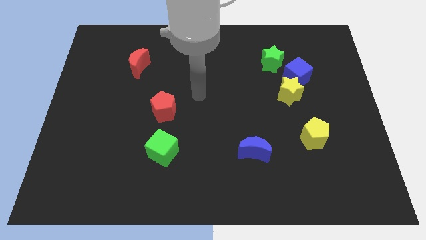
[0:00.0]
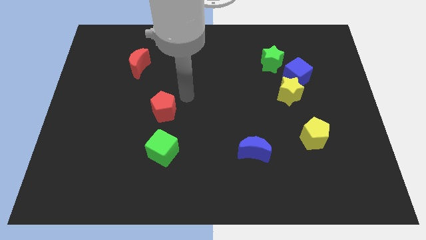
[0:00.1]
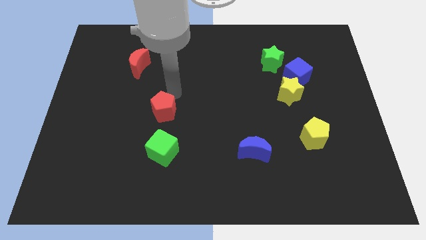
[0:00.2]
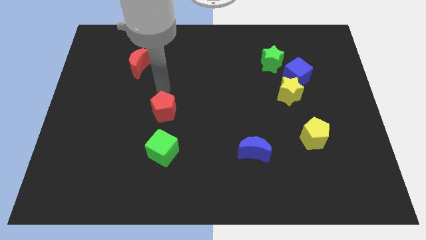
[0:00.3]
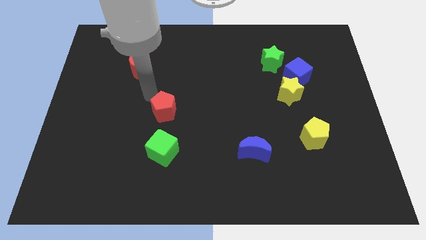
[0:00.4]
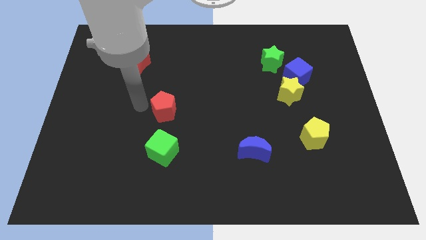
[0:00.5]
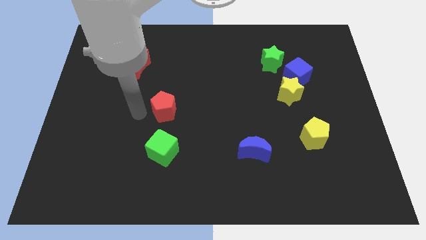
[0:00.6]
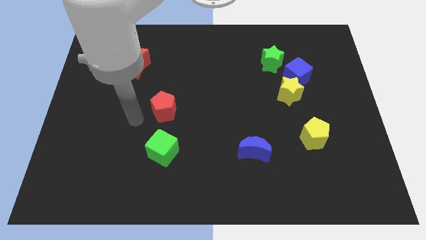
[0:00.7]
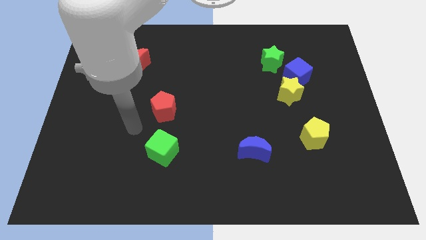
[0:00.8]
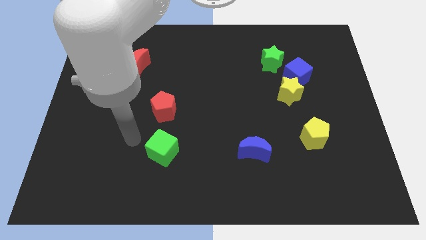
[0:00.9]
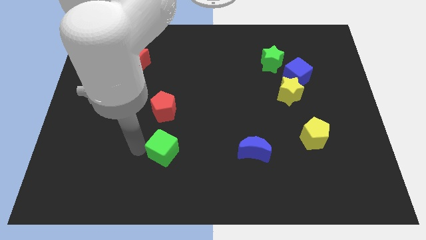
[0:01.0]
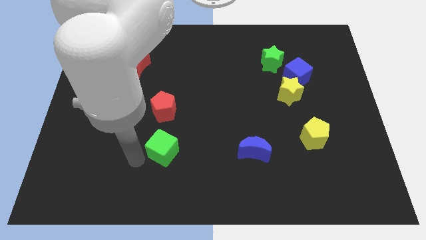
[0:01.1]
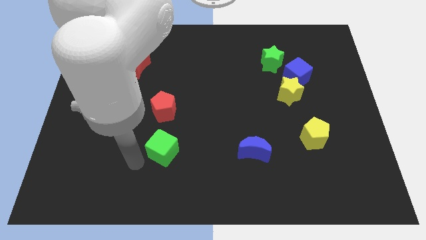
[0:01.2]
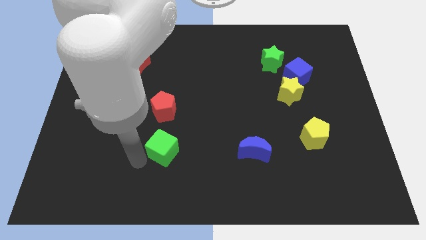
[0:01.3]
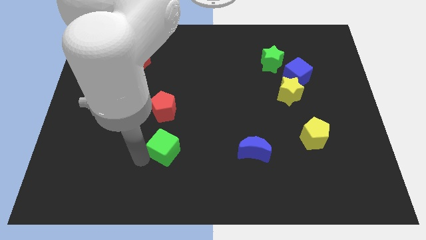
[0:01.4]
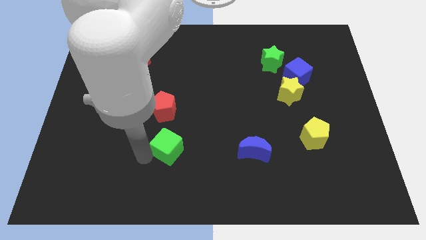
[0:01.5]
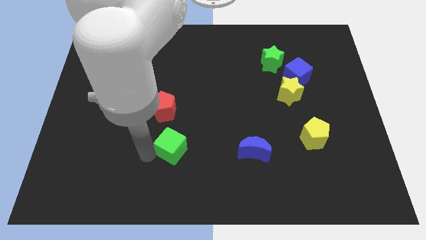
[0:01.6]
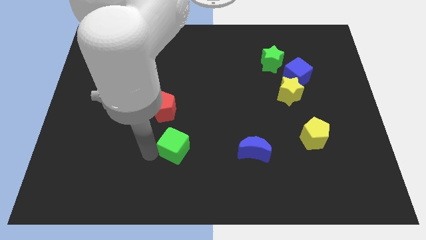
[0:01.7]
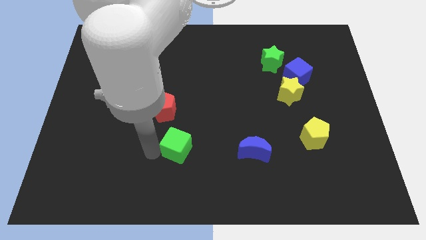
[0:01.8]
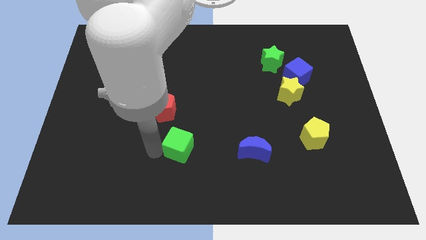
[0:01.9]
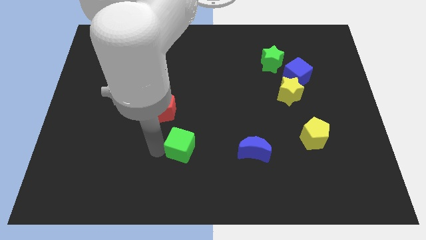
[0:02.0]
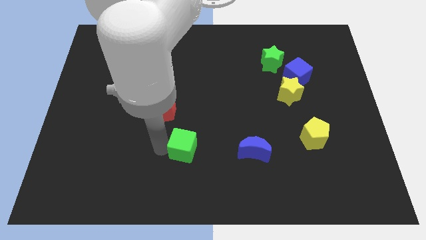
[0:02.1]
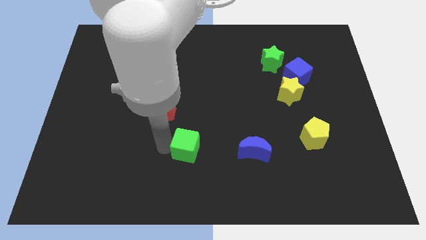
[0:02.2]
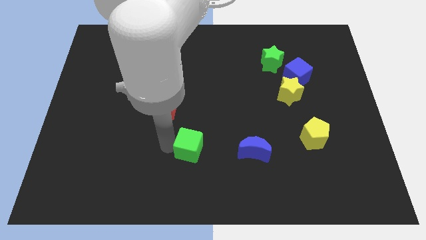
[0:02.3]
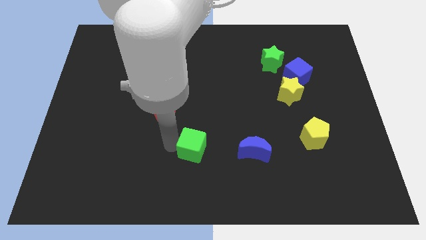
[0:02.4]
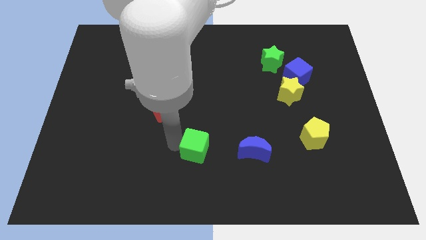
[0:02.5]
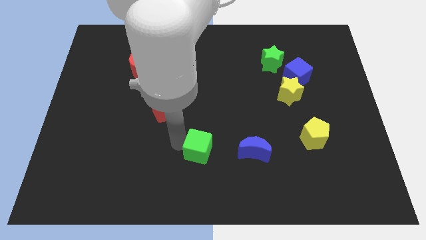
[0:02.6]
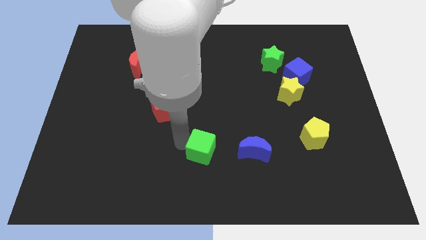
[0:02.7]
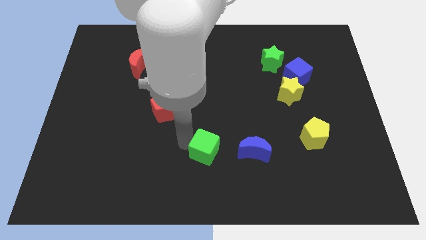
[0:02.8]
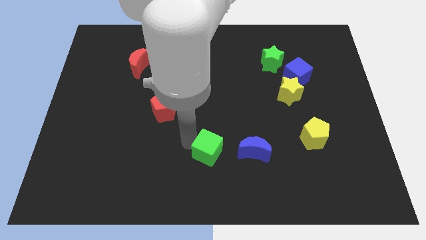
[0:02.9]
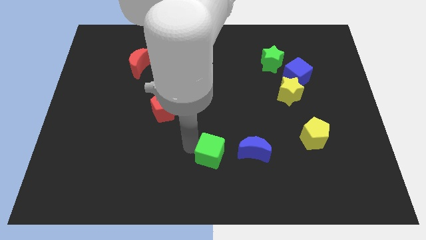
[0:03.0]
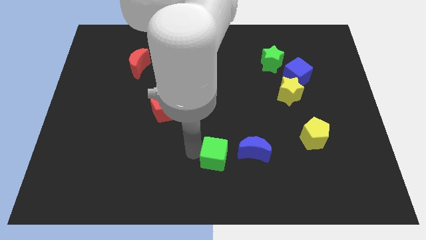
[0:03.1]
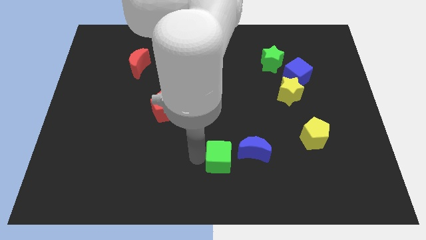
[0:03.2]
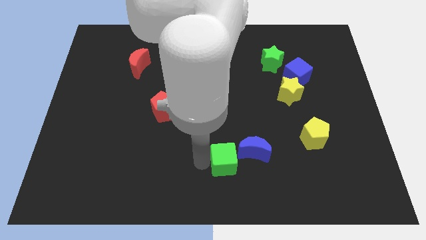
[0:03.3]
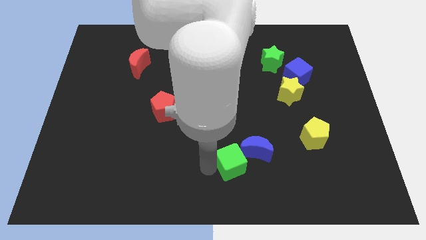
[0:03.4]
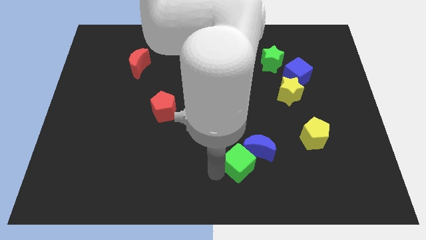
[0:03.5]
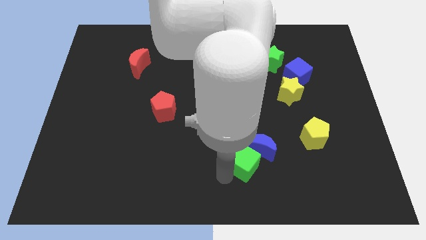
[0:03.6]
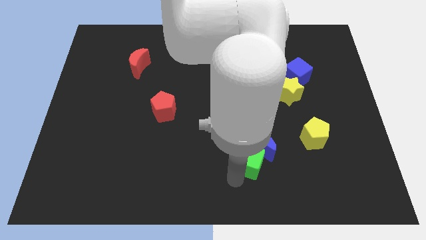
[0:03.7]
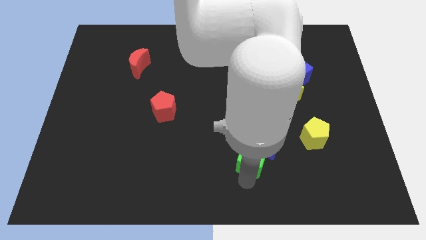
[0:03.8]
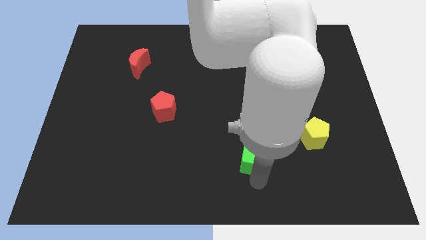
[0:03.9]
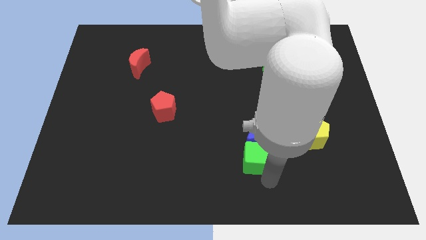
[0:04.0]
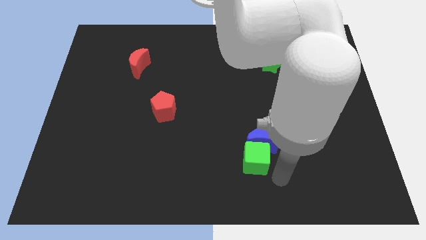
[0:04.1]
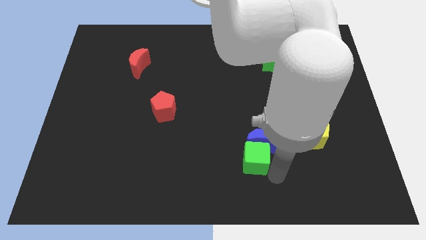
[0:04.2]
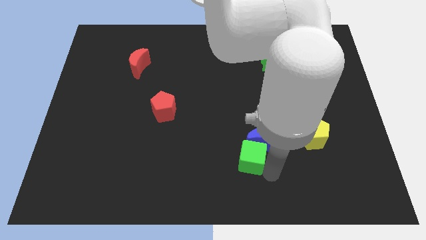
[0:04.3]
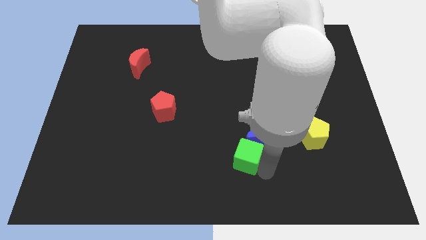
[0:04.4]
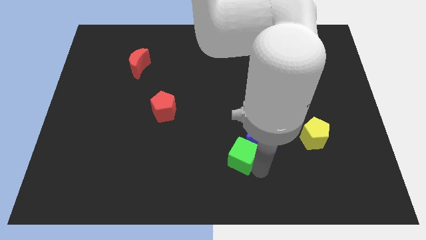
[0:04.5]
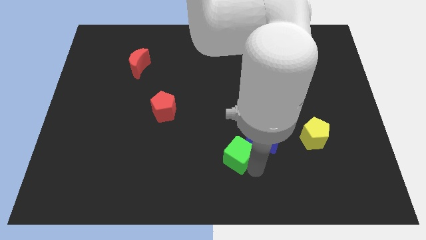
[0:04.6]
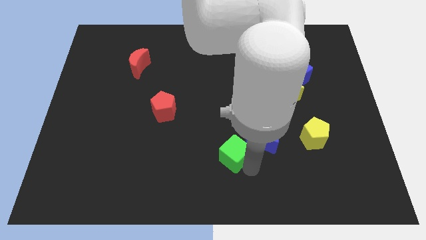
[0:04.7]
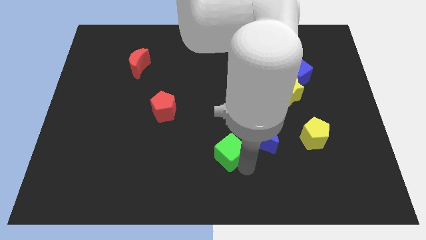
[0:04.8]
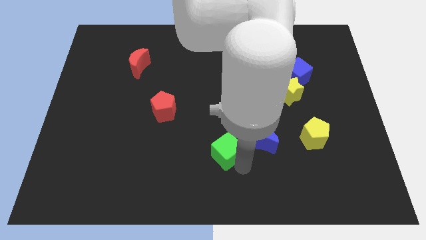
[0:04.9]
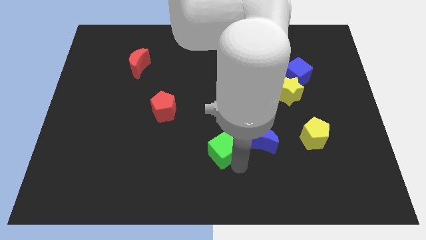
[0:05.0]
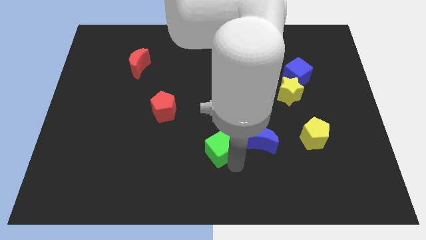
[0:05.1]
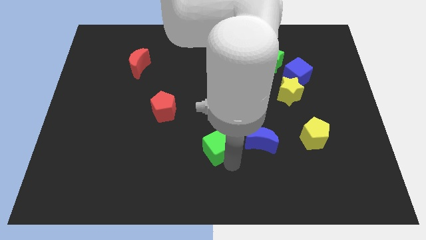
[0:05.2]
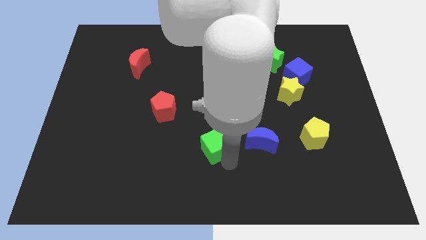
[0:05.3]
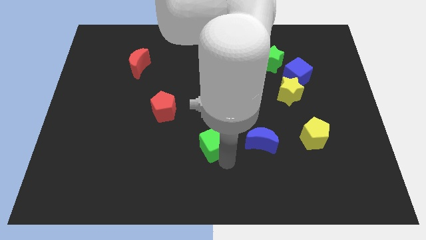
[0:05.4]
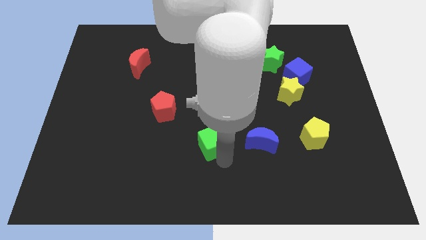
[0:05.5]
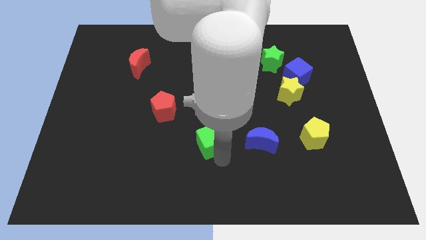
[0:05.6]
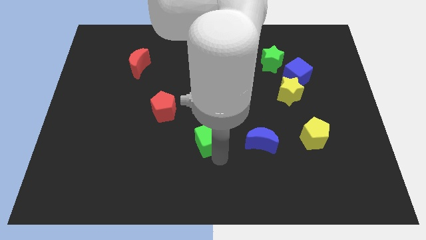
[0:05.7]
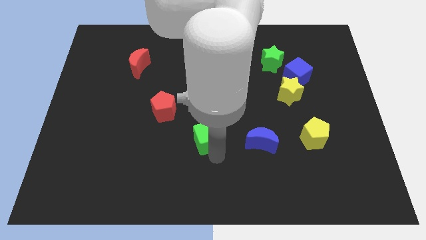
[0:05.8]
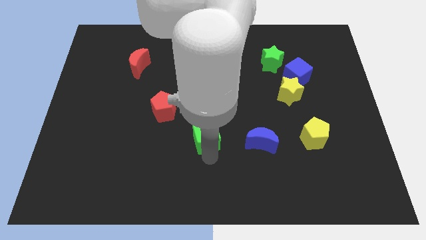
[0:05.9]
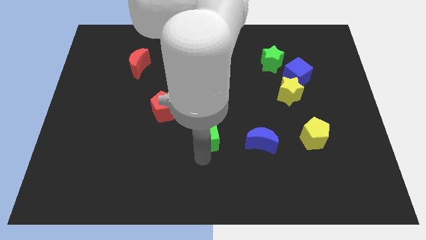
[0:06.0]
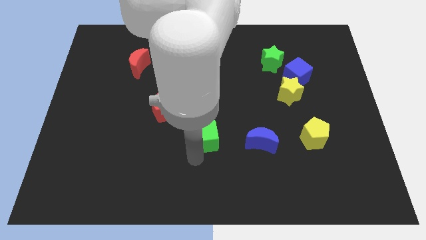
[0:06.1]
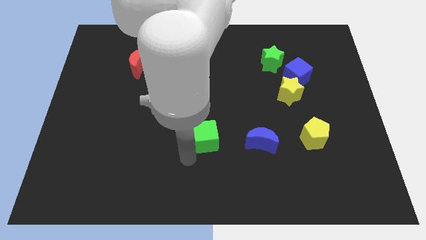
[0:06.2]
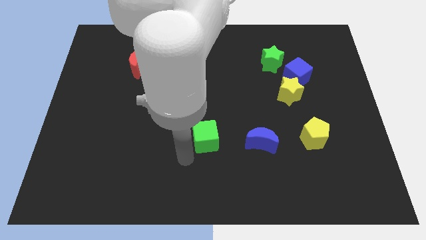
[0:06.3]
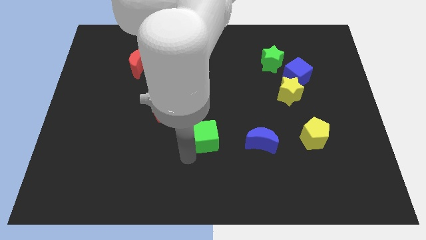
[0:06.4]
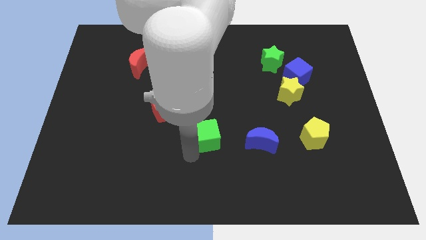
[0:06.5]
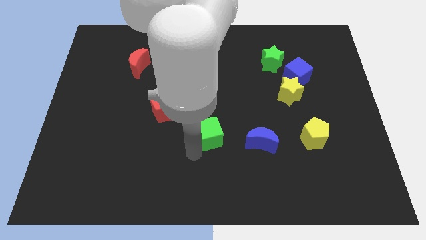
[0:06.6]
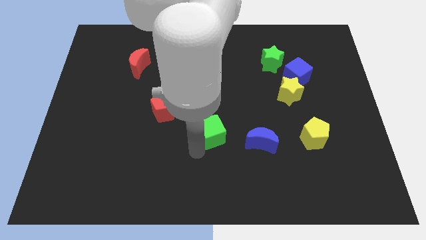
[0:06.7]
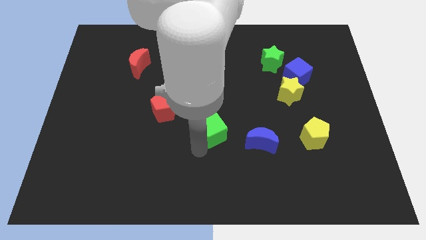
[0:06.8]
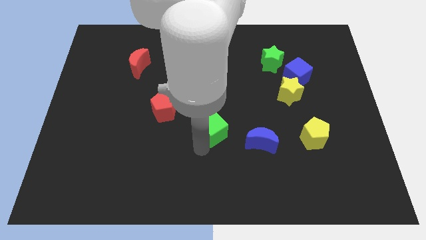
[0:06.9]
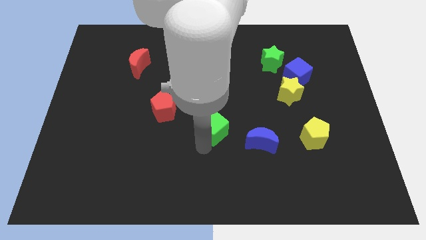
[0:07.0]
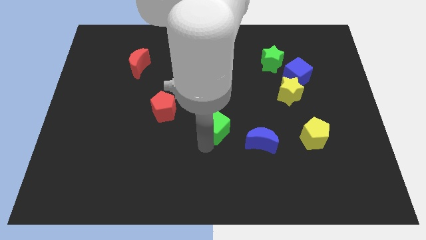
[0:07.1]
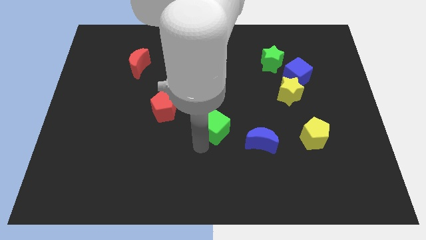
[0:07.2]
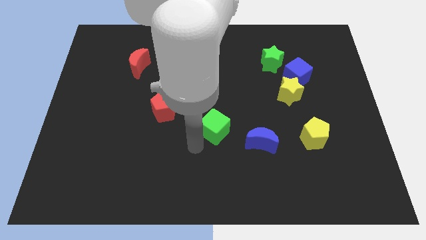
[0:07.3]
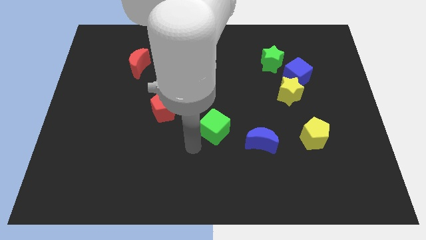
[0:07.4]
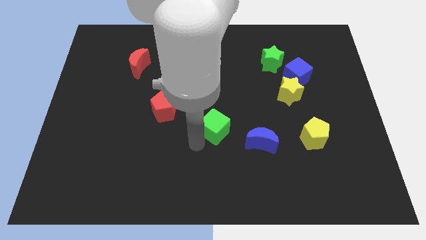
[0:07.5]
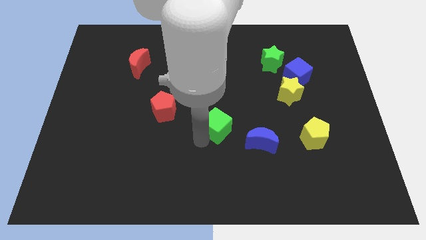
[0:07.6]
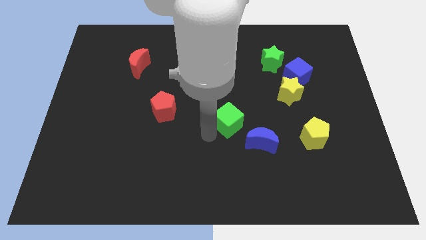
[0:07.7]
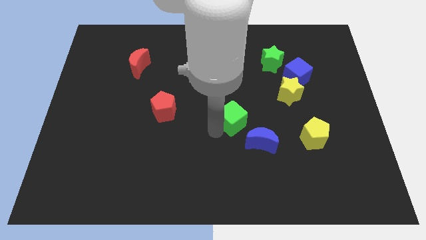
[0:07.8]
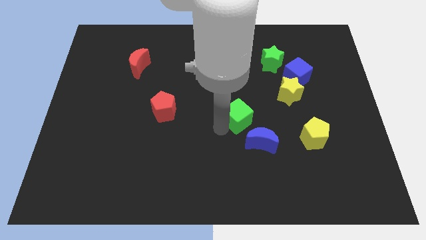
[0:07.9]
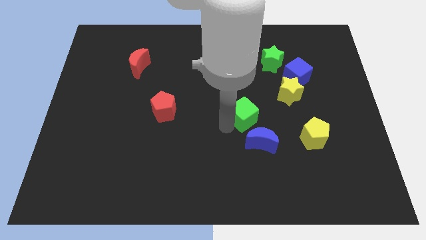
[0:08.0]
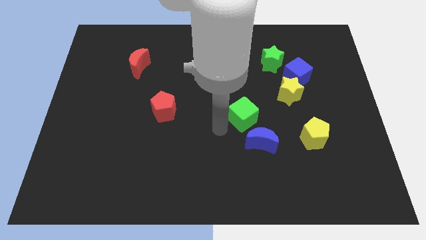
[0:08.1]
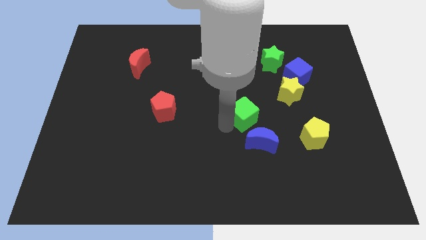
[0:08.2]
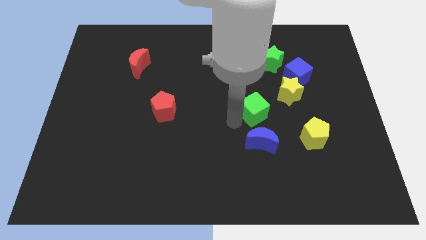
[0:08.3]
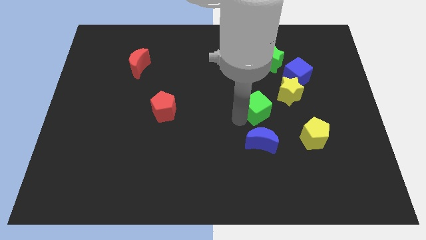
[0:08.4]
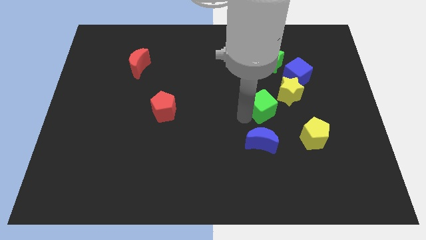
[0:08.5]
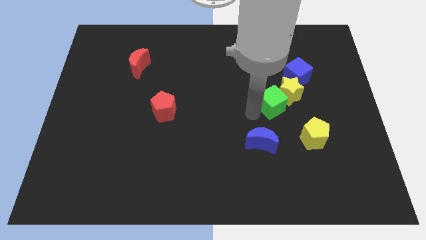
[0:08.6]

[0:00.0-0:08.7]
push the green cube close to the yellow star
